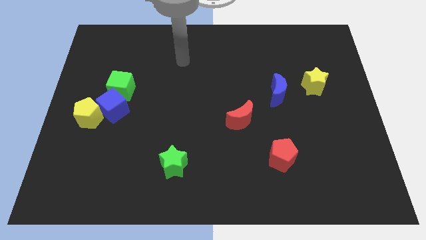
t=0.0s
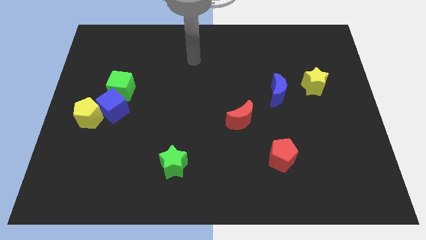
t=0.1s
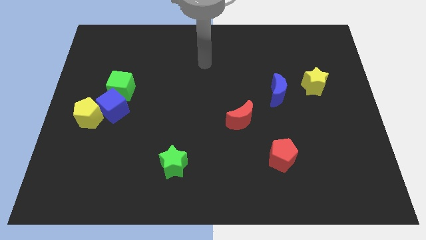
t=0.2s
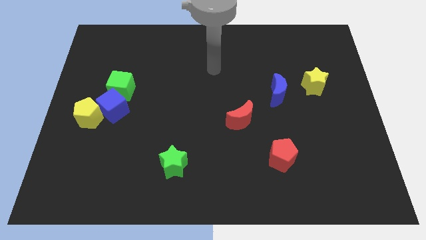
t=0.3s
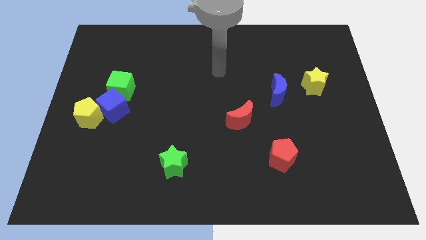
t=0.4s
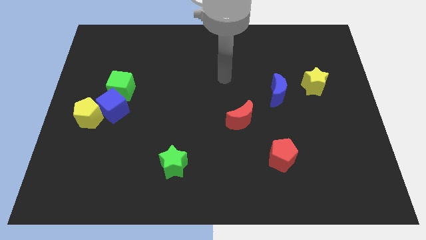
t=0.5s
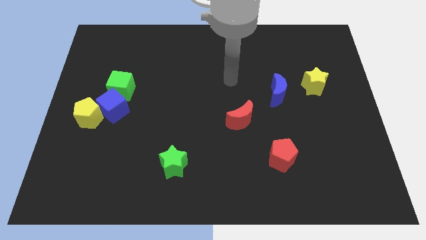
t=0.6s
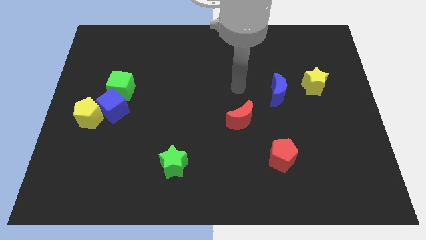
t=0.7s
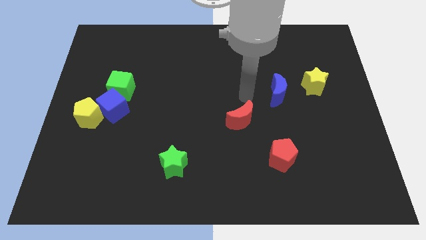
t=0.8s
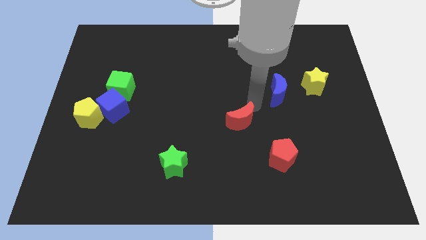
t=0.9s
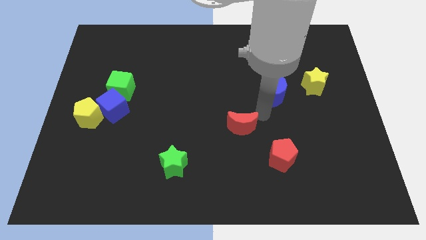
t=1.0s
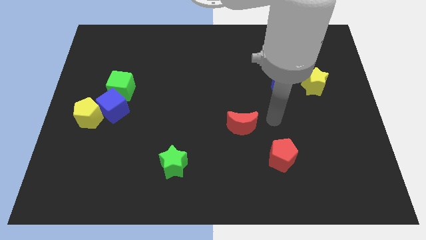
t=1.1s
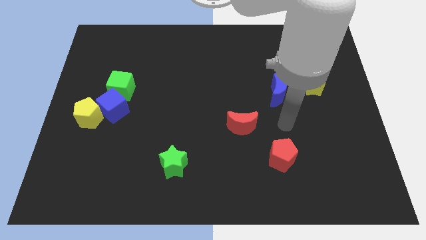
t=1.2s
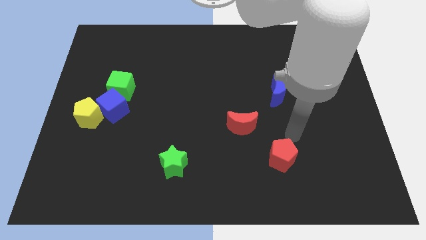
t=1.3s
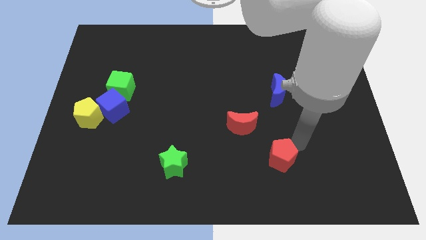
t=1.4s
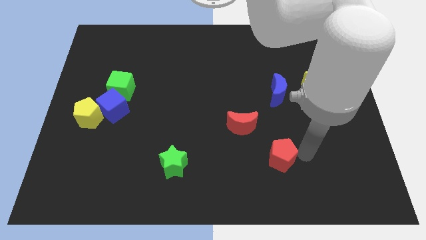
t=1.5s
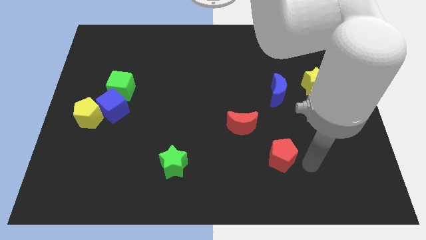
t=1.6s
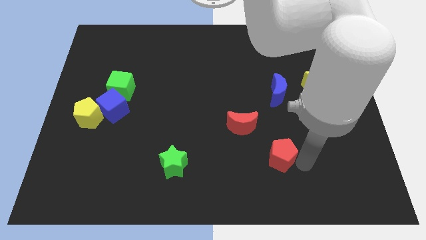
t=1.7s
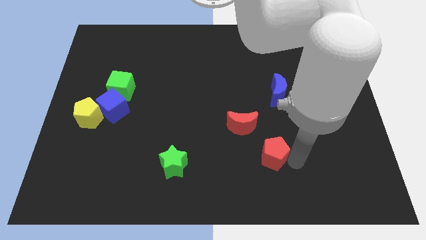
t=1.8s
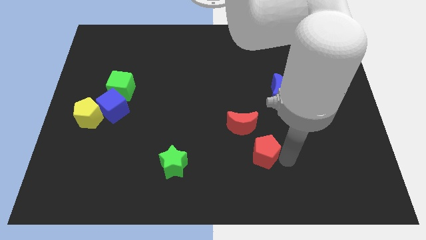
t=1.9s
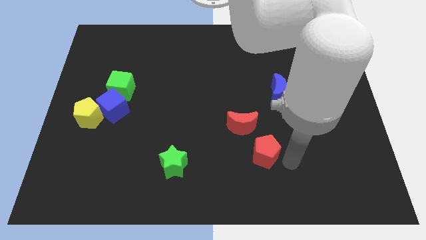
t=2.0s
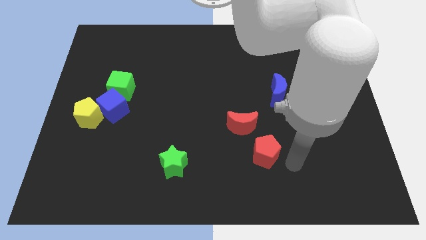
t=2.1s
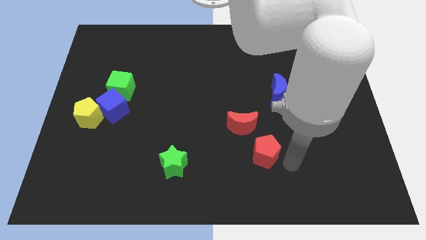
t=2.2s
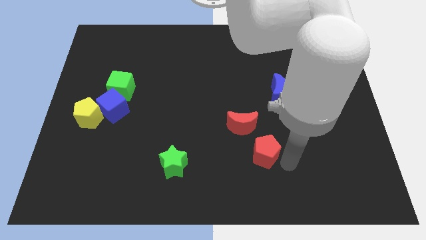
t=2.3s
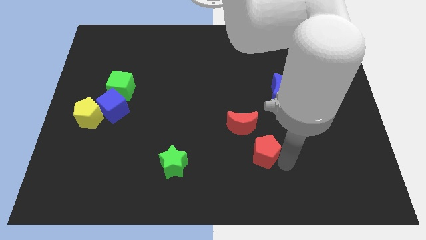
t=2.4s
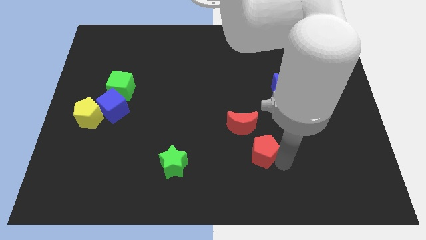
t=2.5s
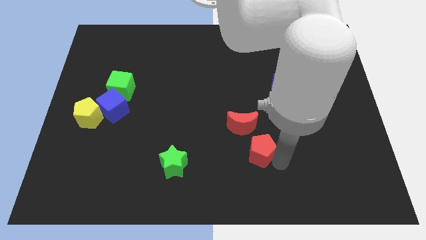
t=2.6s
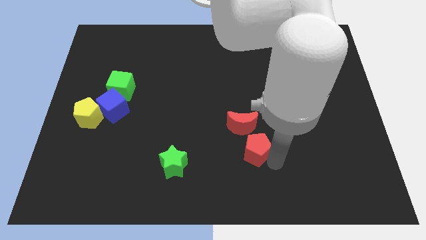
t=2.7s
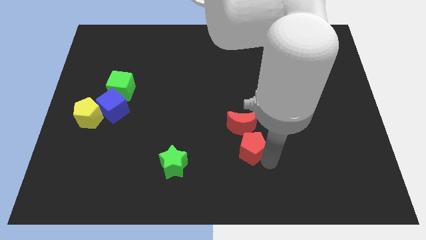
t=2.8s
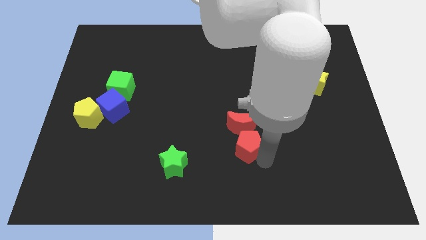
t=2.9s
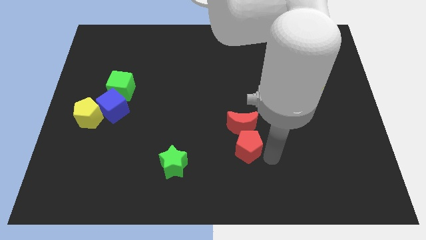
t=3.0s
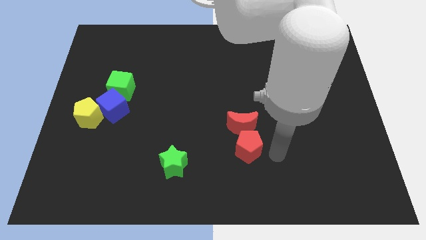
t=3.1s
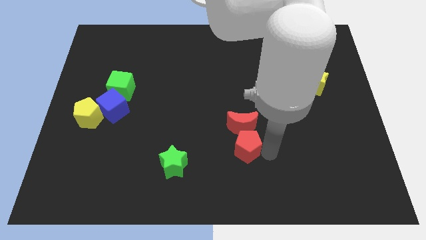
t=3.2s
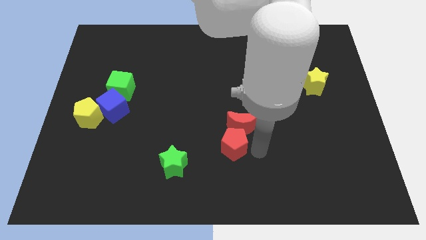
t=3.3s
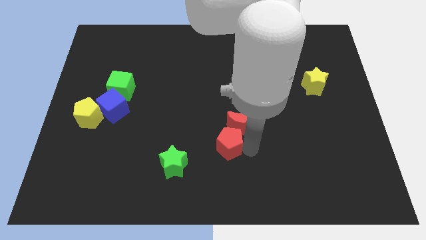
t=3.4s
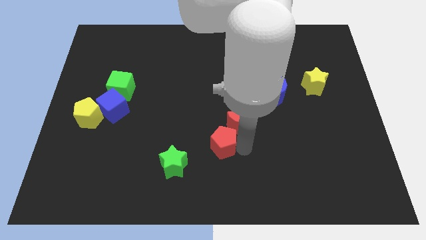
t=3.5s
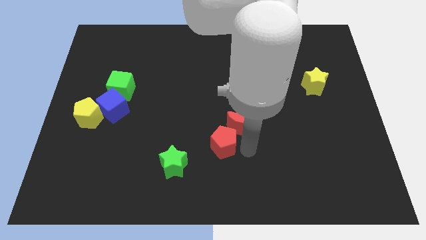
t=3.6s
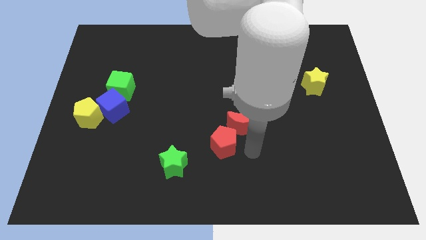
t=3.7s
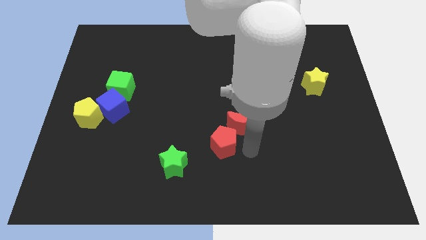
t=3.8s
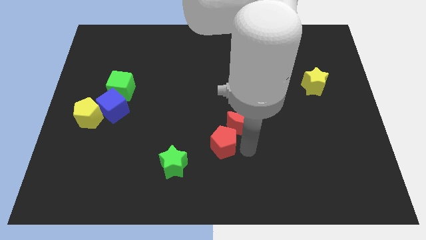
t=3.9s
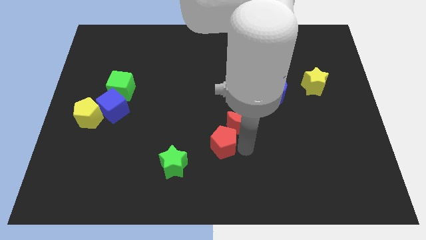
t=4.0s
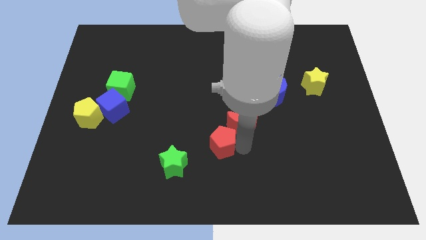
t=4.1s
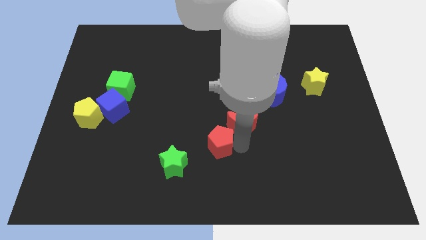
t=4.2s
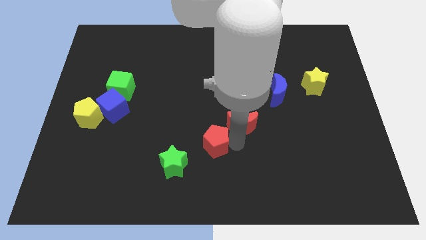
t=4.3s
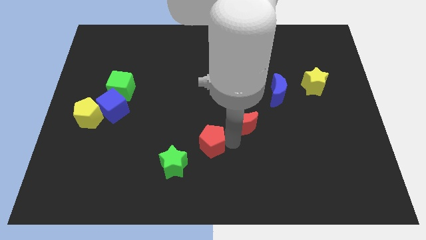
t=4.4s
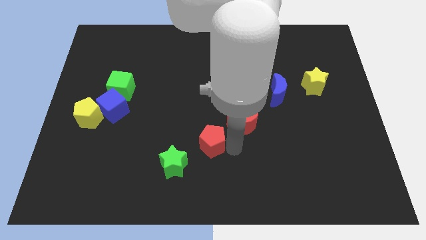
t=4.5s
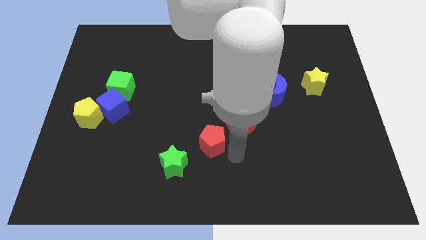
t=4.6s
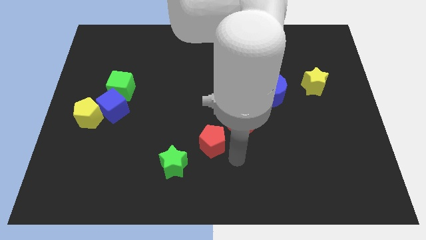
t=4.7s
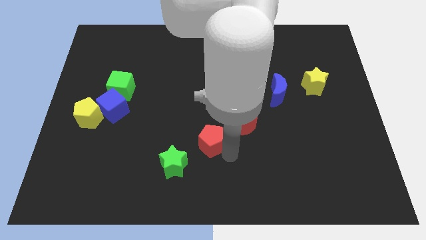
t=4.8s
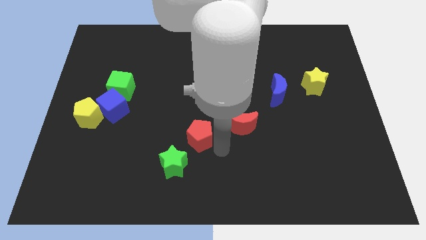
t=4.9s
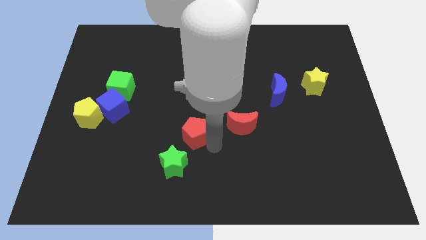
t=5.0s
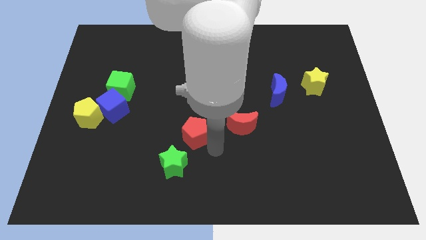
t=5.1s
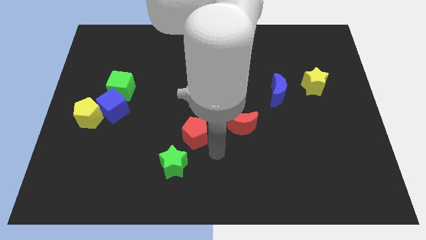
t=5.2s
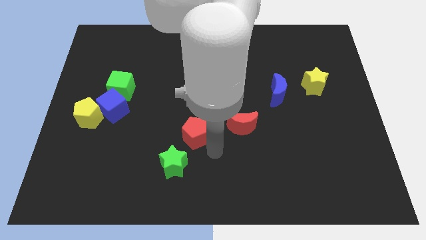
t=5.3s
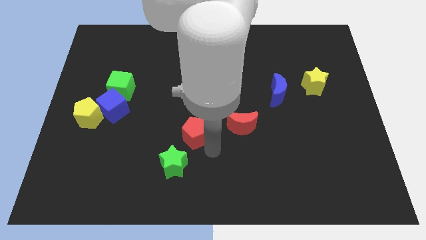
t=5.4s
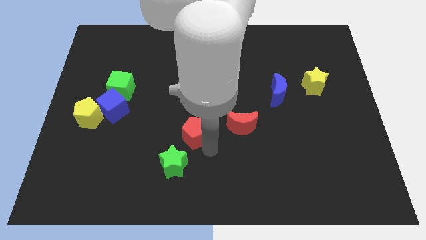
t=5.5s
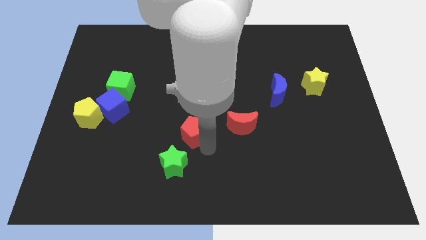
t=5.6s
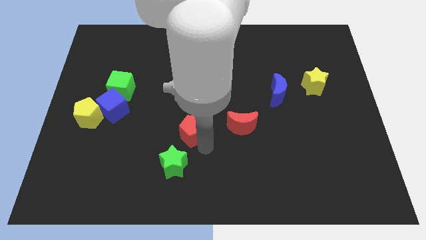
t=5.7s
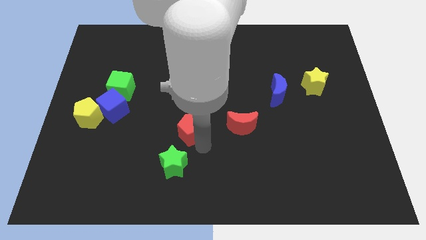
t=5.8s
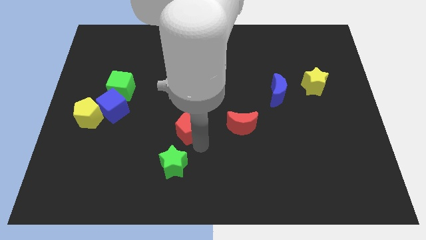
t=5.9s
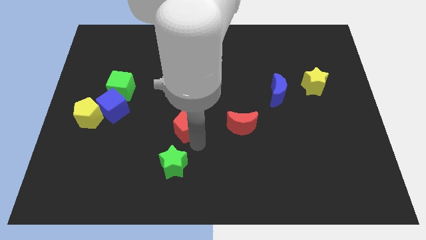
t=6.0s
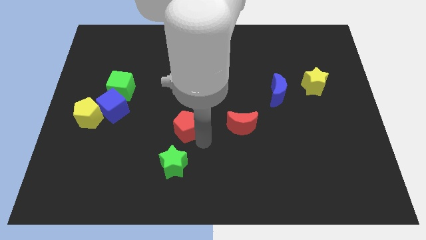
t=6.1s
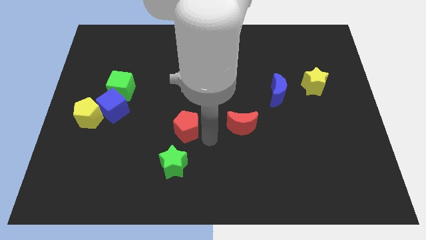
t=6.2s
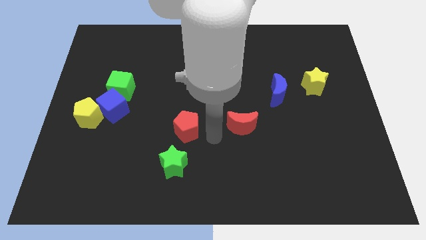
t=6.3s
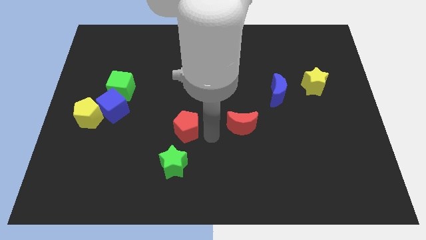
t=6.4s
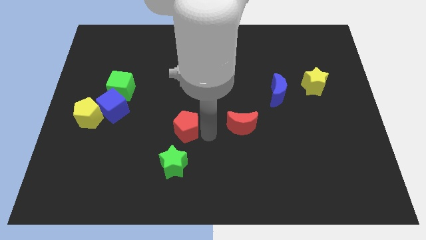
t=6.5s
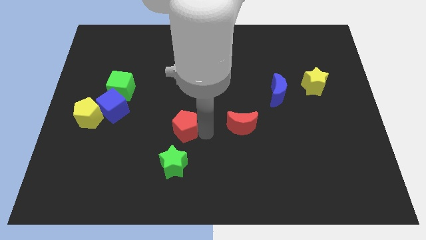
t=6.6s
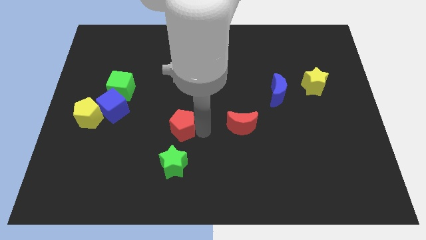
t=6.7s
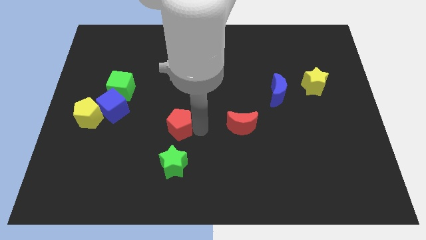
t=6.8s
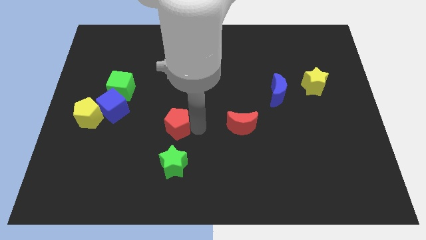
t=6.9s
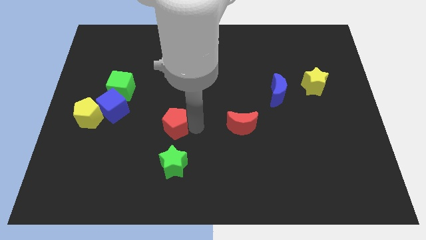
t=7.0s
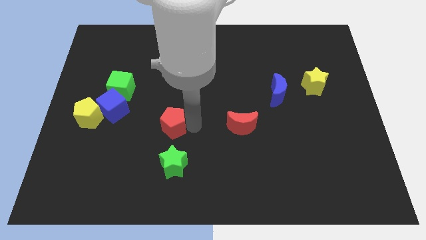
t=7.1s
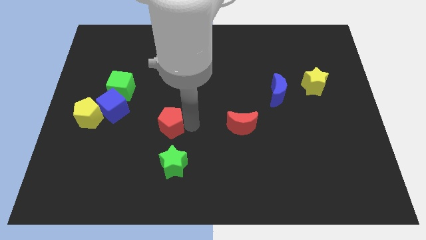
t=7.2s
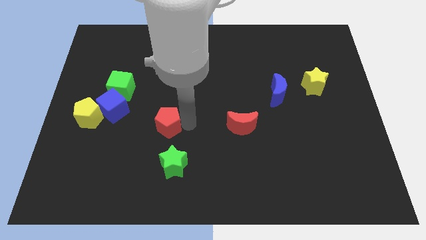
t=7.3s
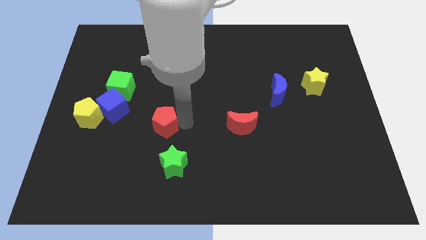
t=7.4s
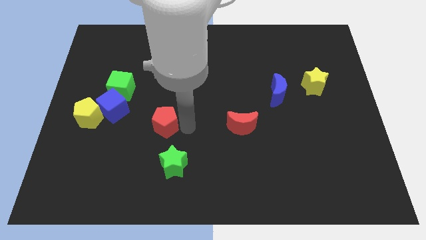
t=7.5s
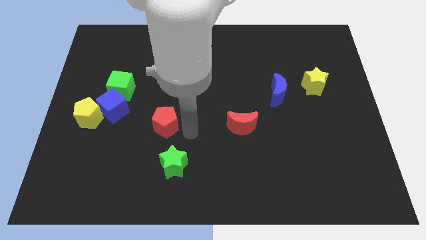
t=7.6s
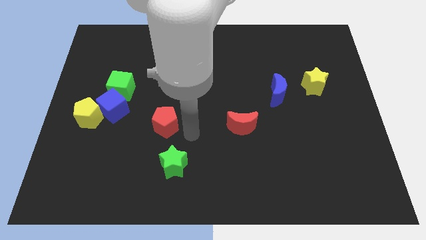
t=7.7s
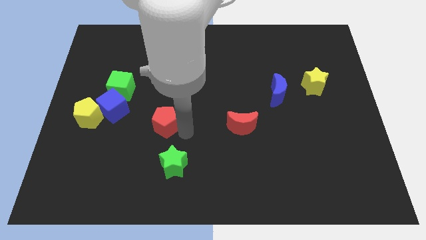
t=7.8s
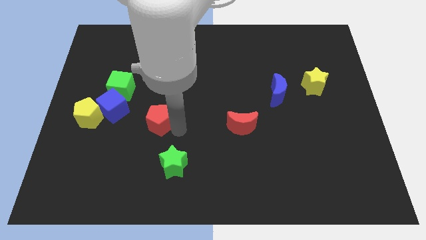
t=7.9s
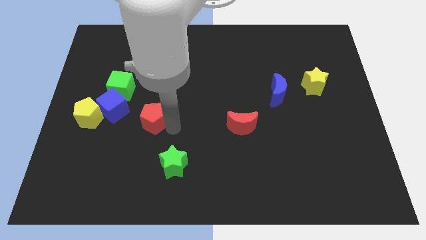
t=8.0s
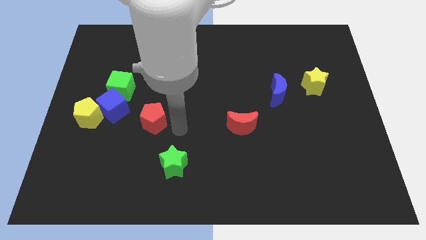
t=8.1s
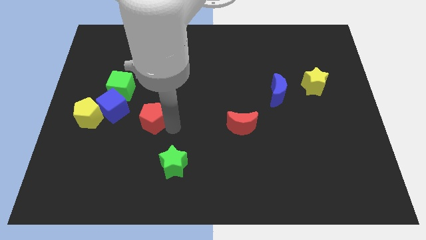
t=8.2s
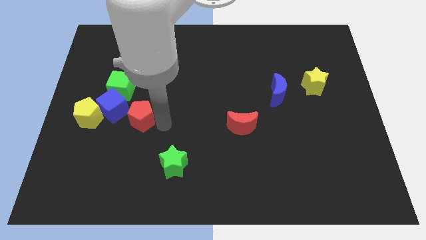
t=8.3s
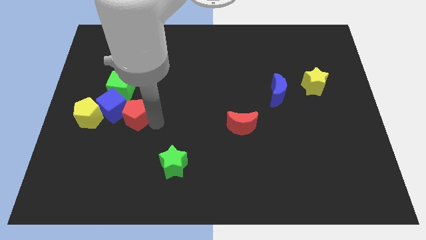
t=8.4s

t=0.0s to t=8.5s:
push the red pentagon to the blue cube
